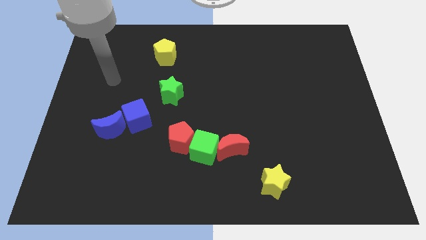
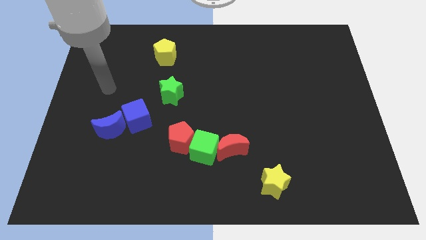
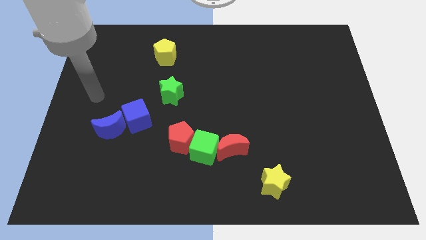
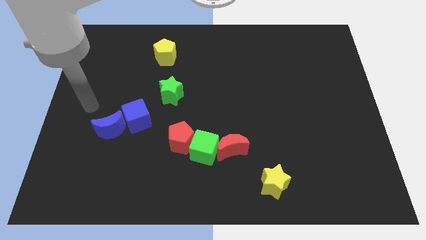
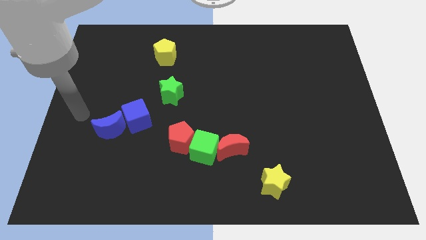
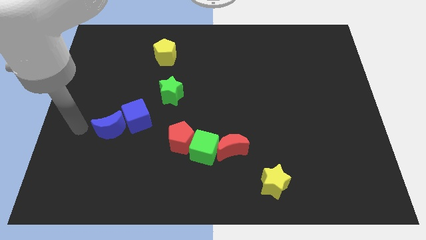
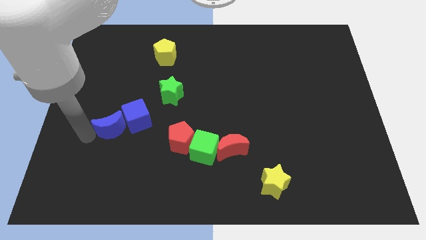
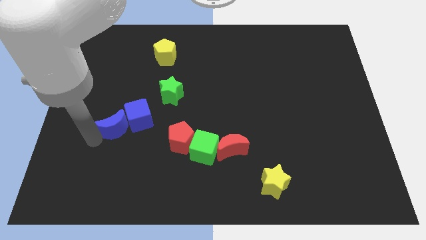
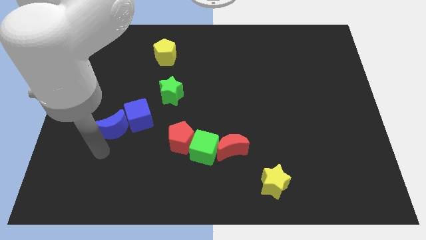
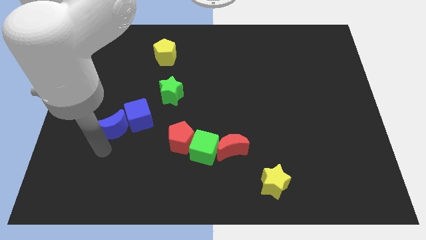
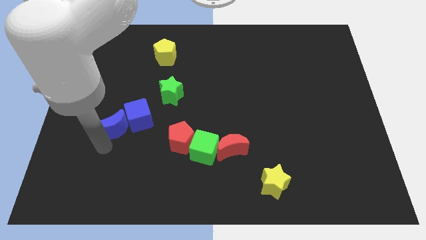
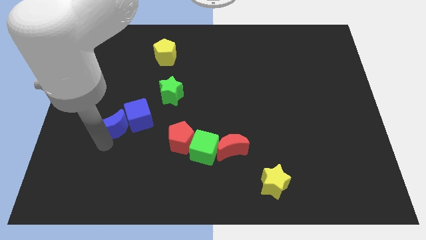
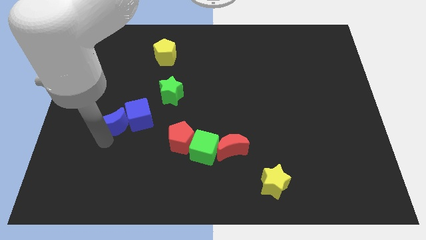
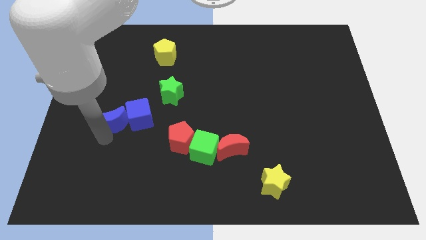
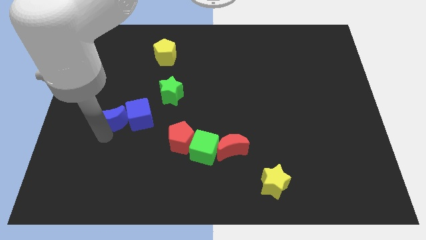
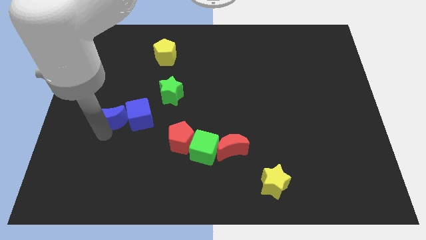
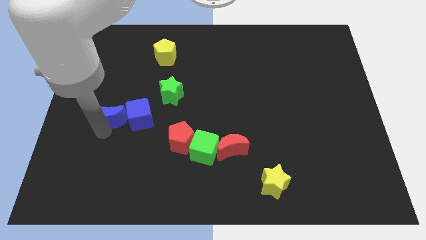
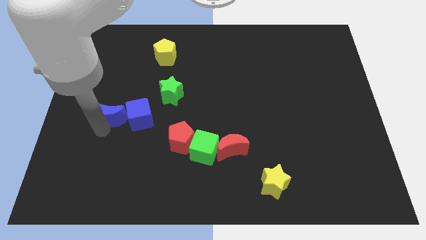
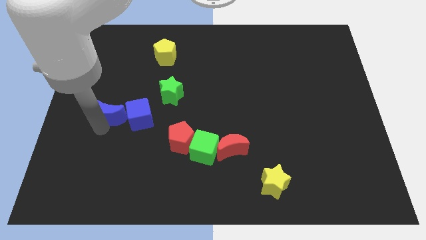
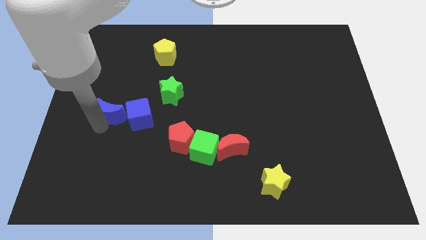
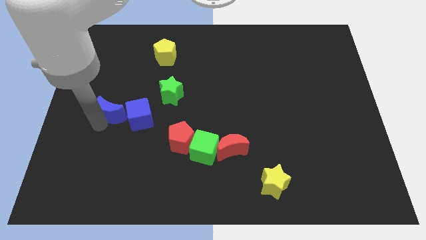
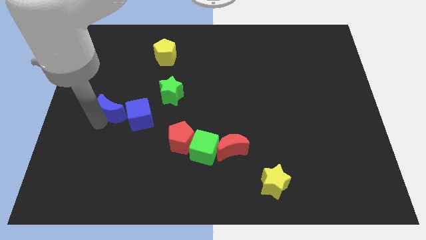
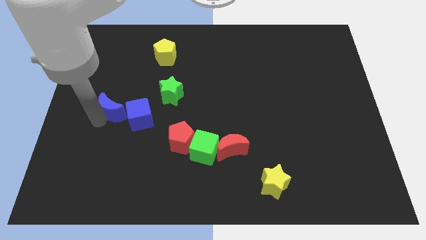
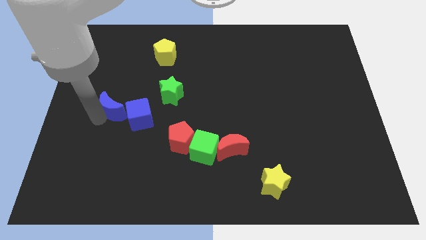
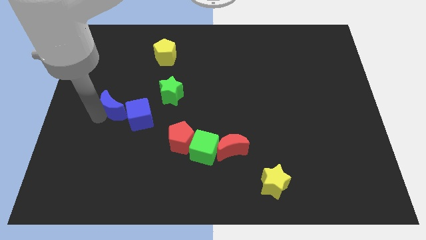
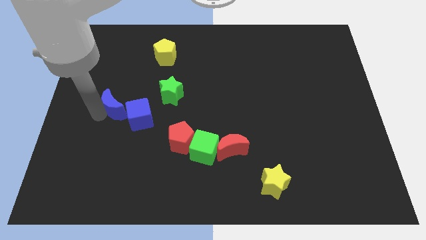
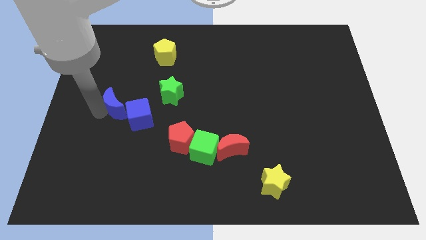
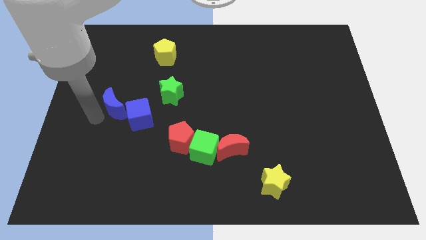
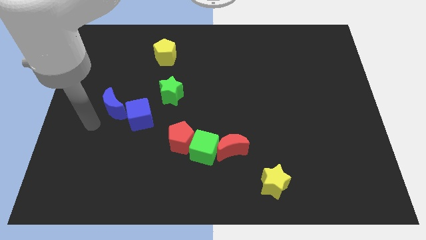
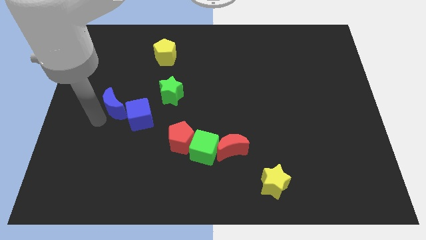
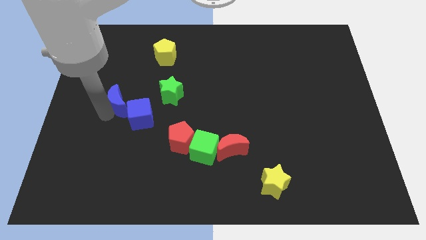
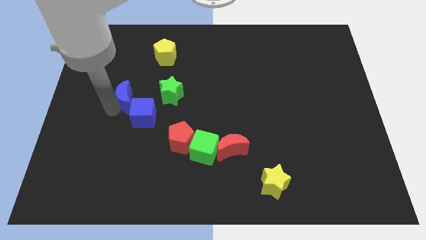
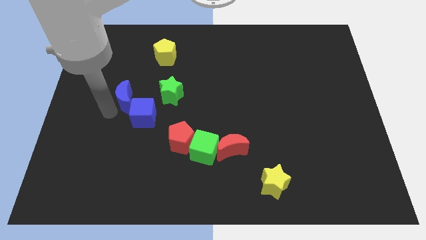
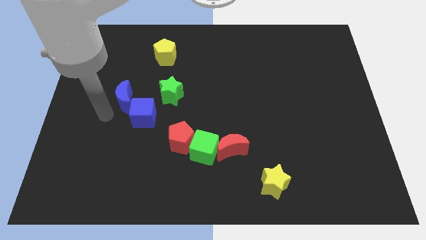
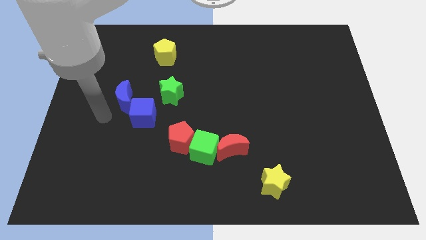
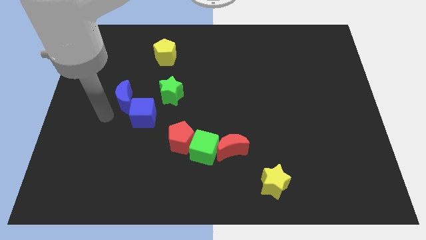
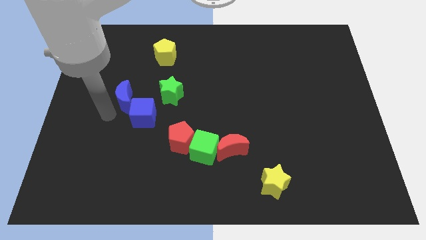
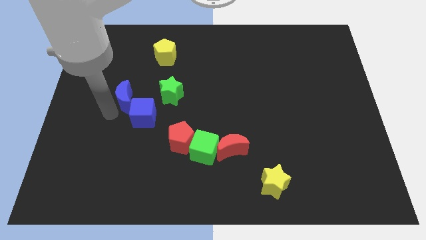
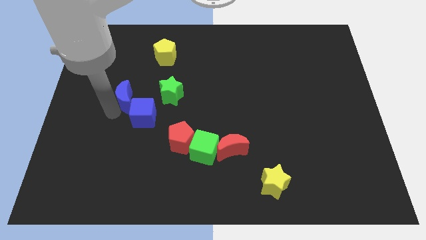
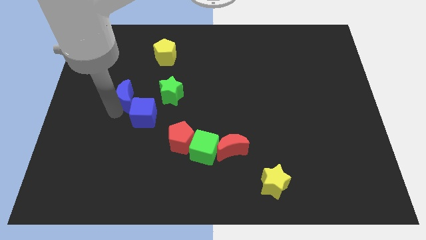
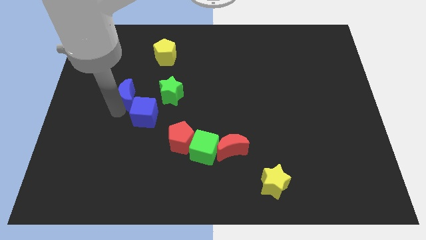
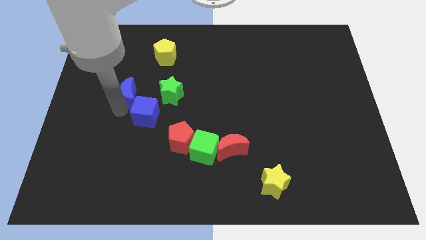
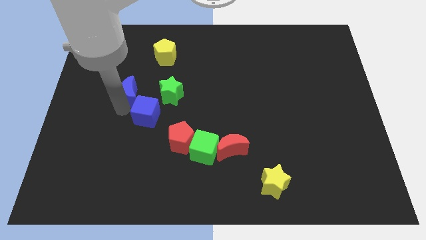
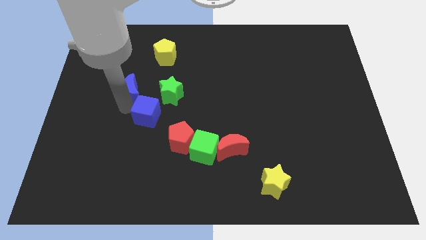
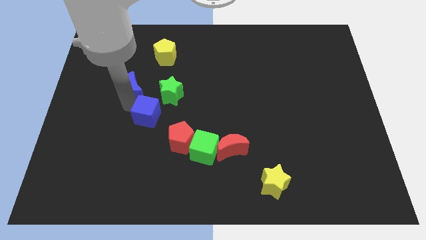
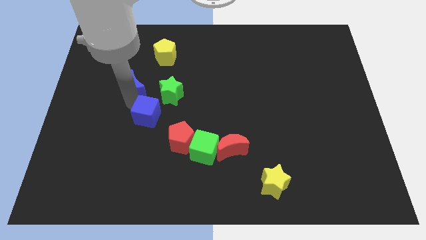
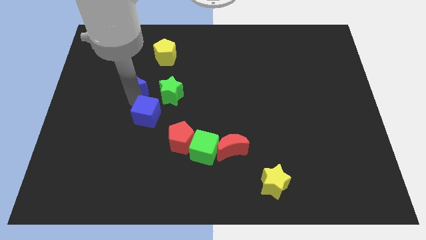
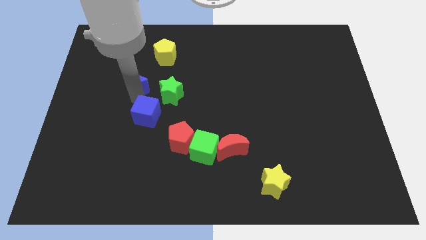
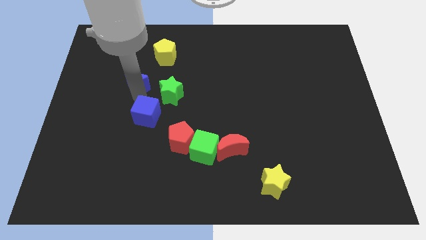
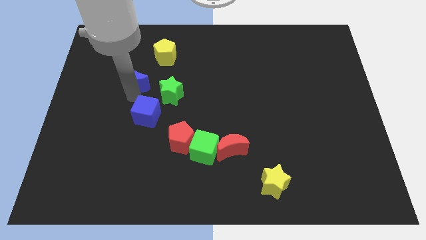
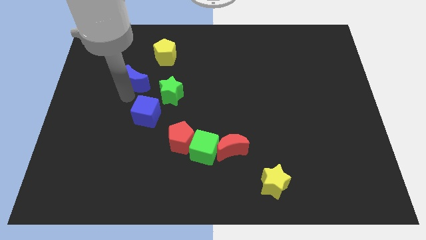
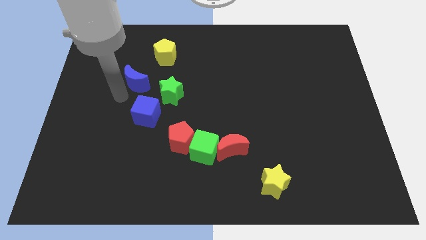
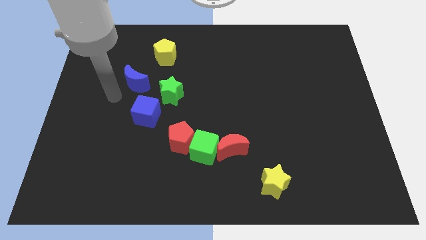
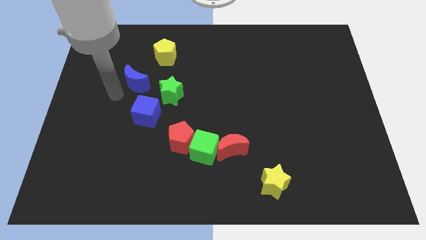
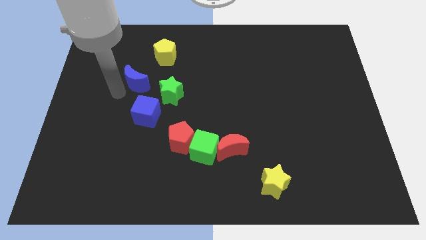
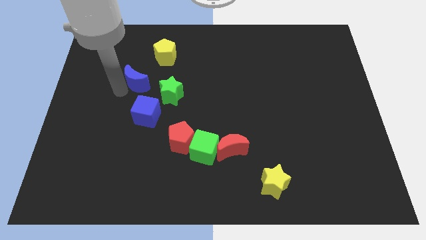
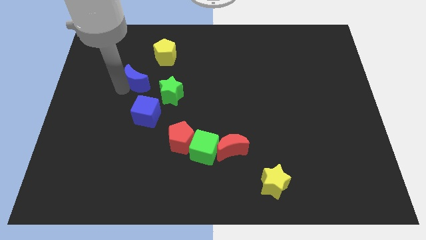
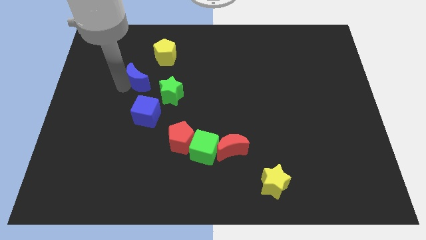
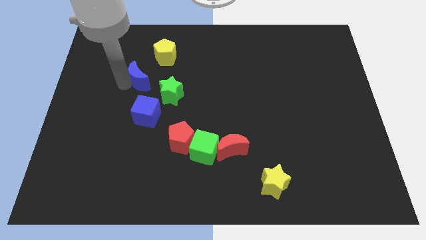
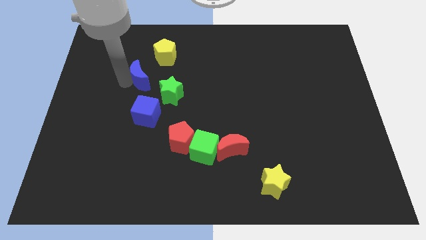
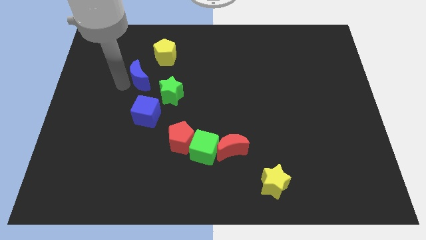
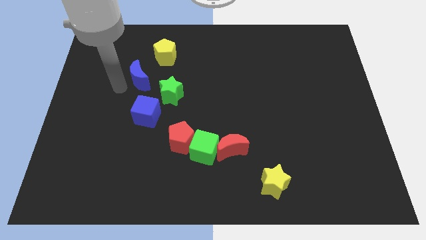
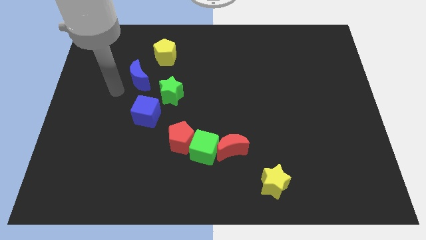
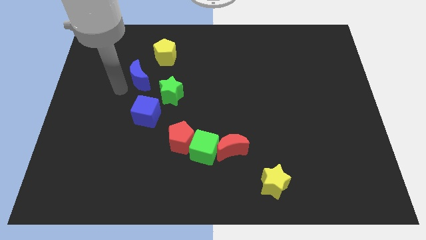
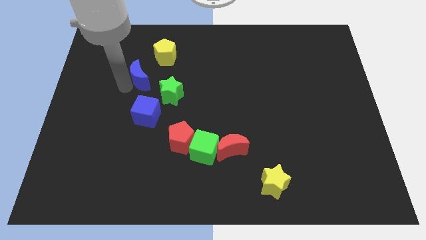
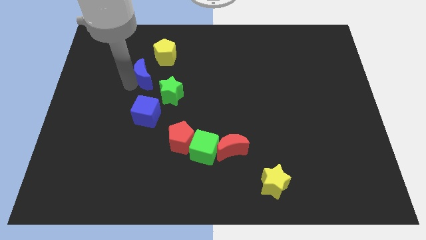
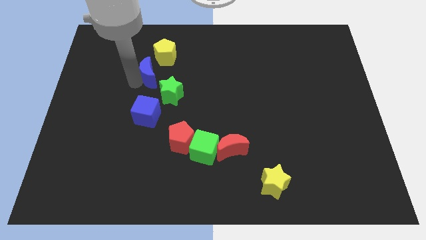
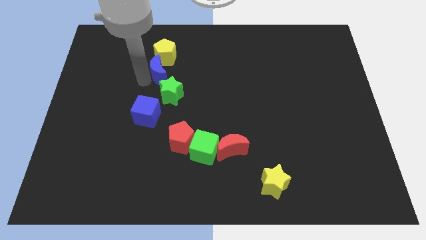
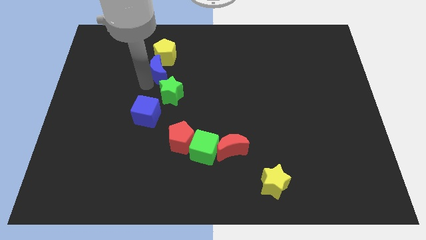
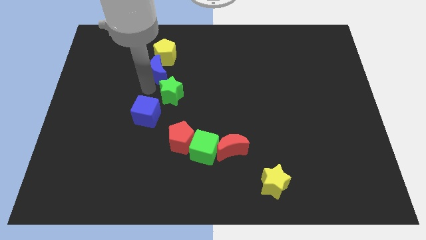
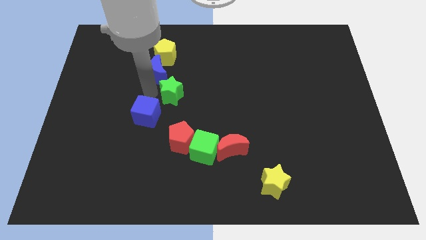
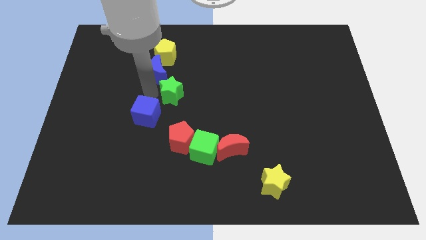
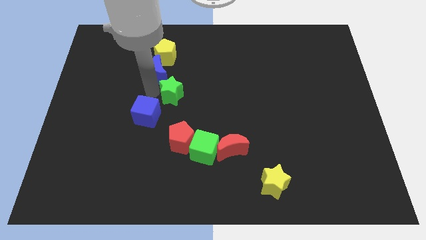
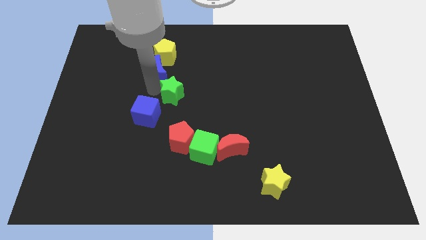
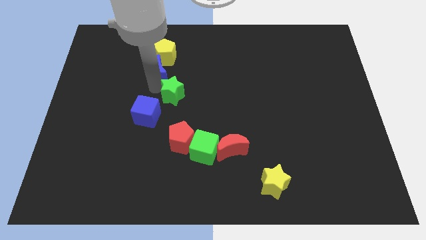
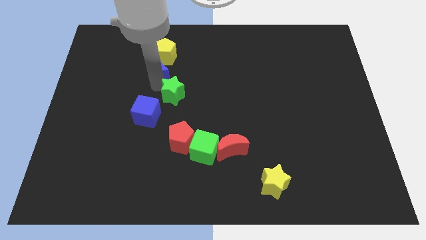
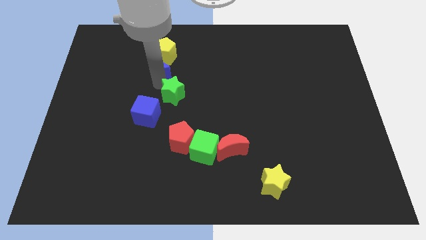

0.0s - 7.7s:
push the blue moon to the yellow pentagon

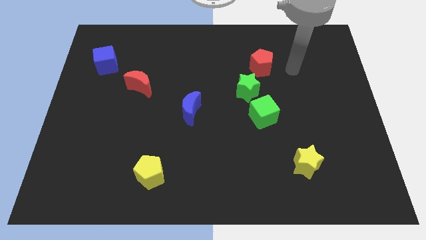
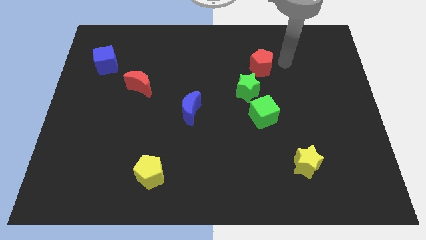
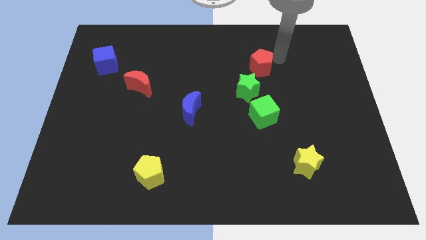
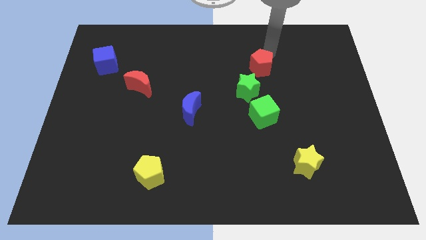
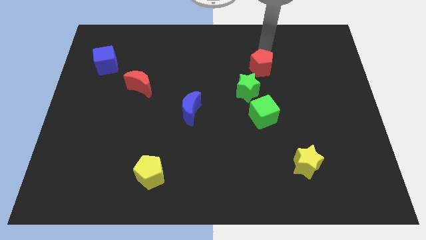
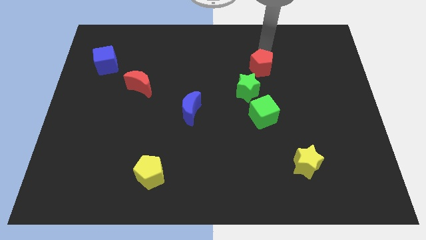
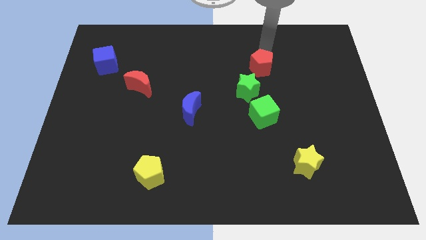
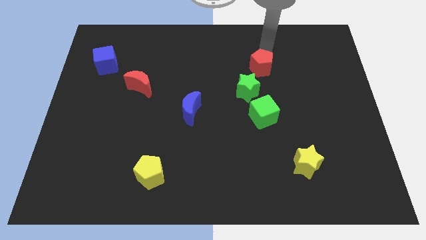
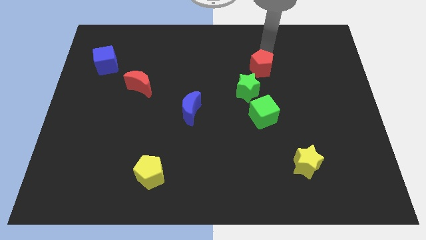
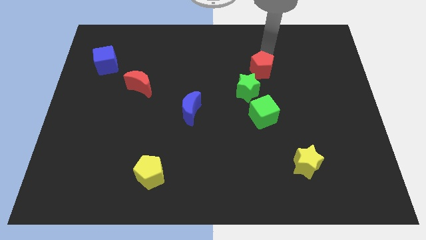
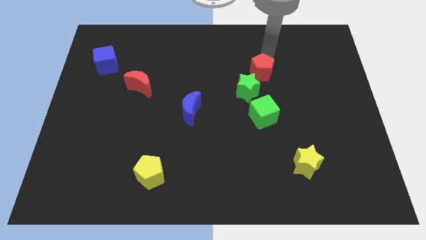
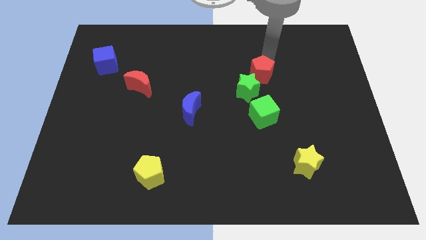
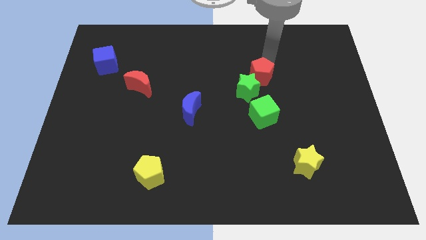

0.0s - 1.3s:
slide the red pentagon towards the green star
